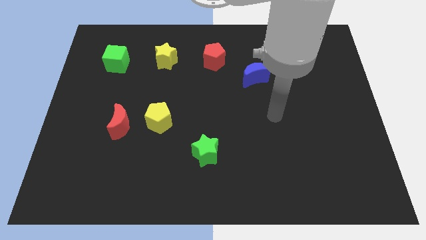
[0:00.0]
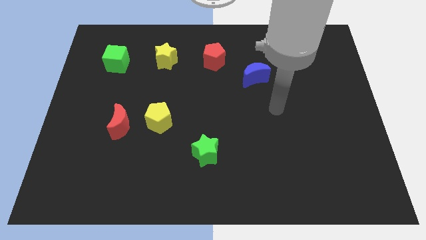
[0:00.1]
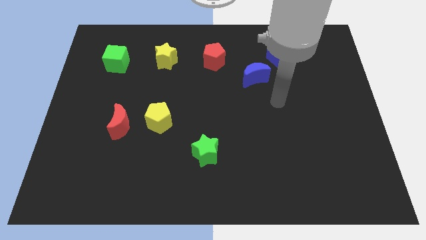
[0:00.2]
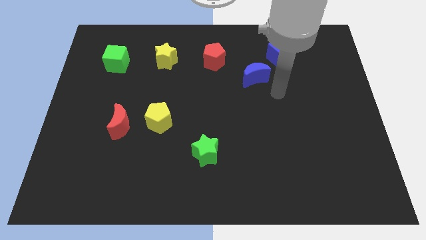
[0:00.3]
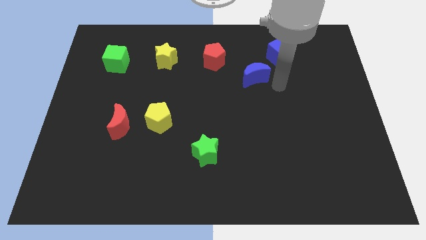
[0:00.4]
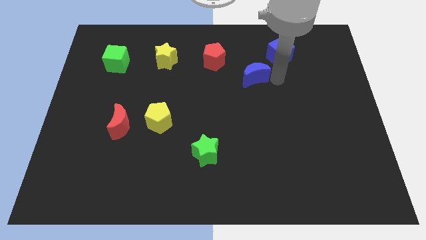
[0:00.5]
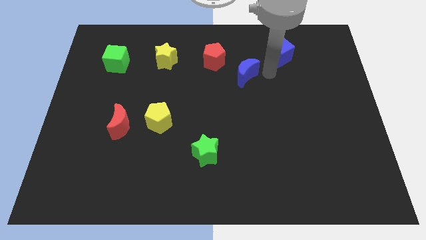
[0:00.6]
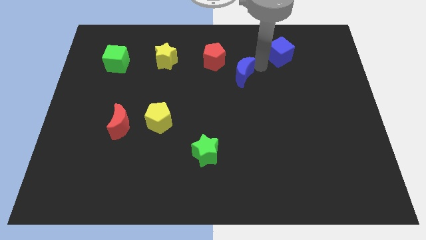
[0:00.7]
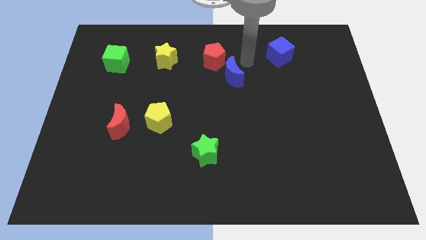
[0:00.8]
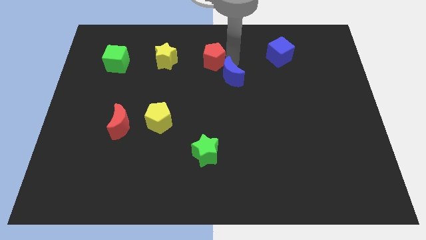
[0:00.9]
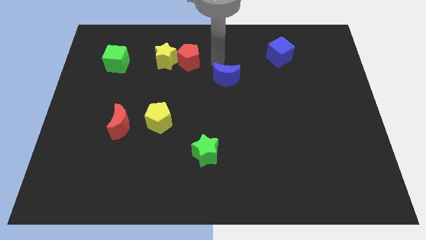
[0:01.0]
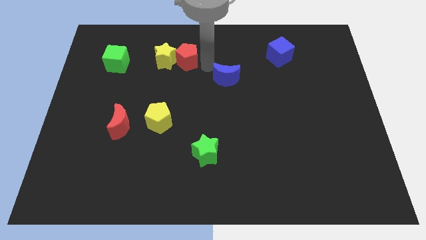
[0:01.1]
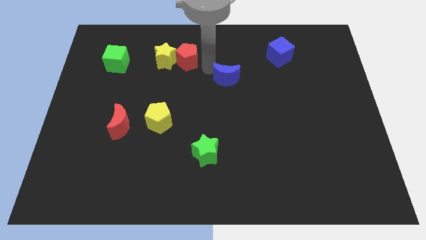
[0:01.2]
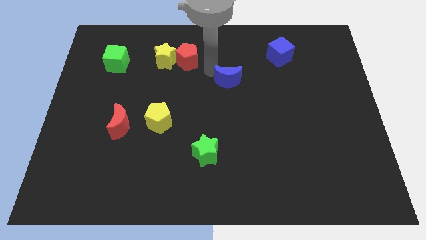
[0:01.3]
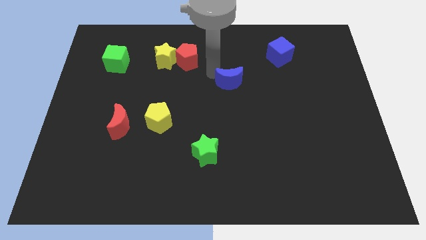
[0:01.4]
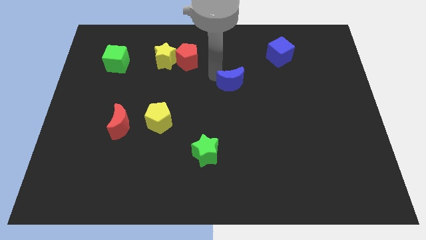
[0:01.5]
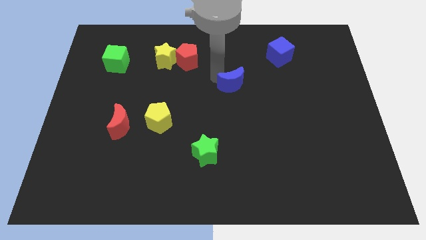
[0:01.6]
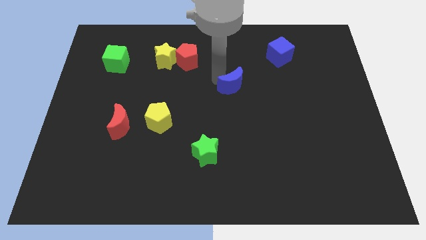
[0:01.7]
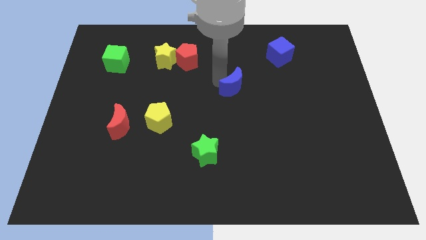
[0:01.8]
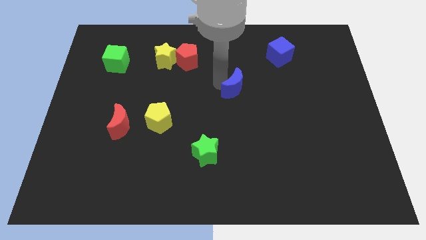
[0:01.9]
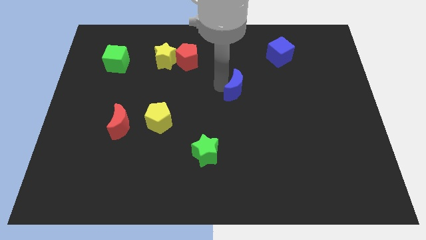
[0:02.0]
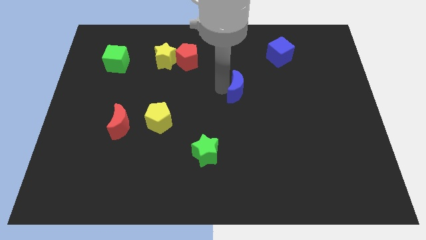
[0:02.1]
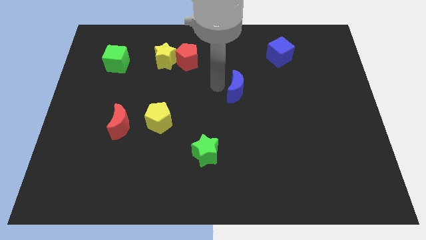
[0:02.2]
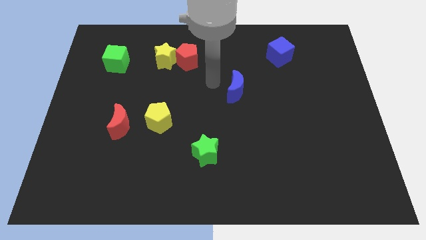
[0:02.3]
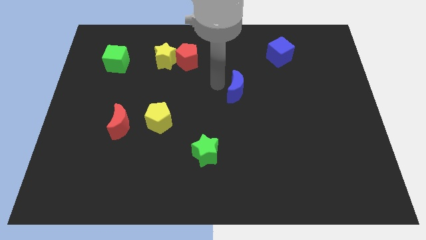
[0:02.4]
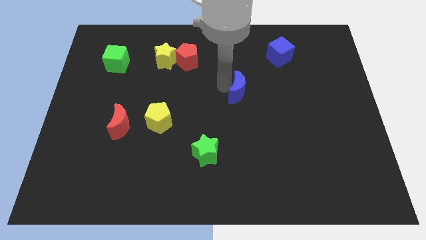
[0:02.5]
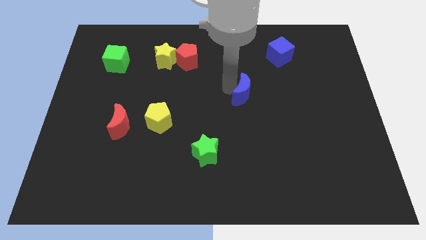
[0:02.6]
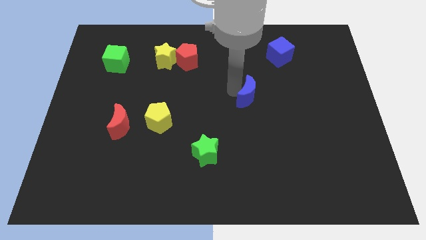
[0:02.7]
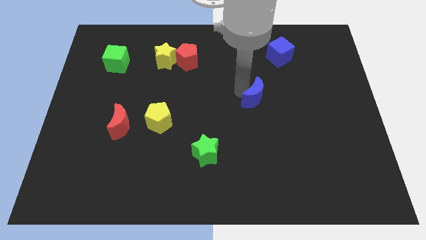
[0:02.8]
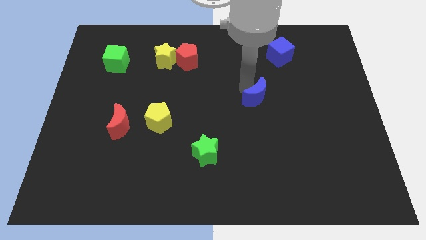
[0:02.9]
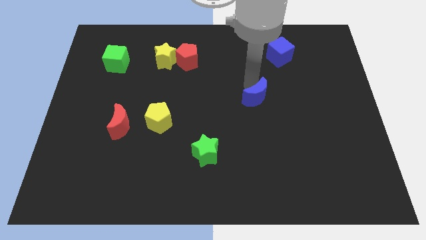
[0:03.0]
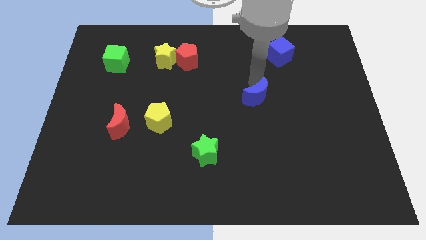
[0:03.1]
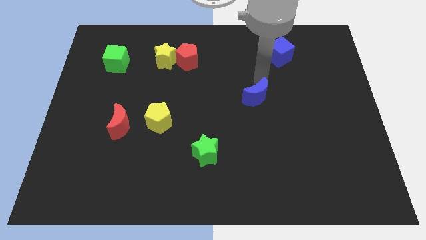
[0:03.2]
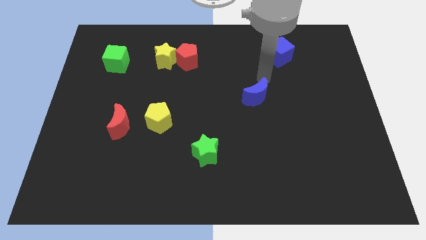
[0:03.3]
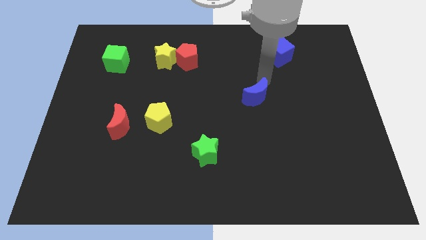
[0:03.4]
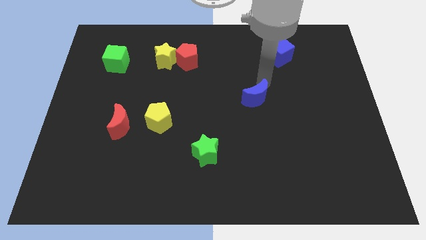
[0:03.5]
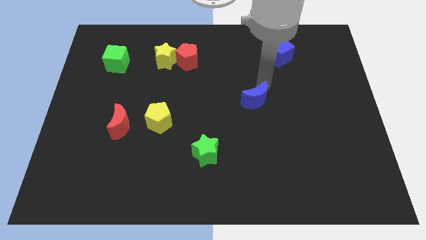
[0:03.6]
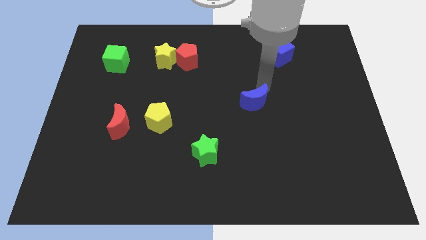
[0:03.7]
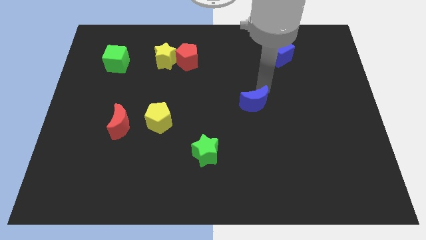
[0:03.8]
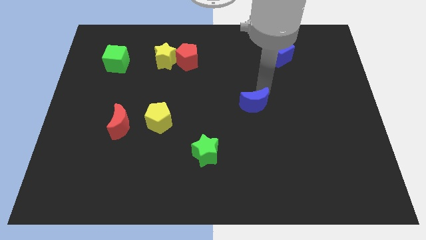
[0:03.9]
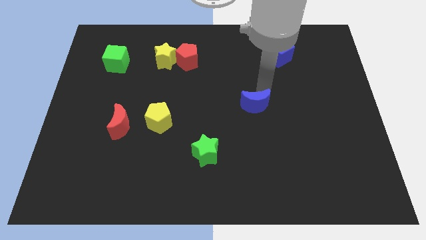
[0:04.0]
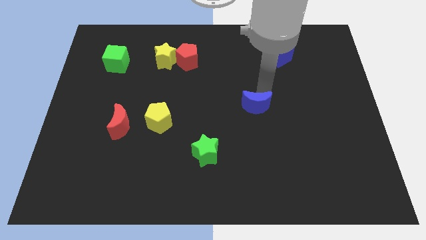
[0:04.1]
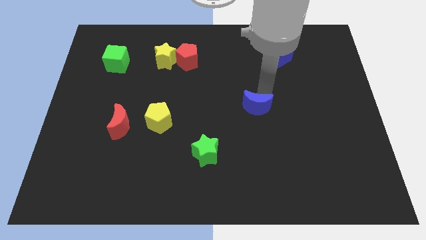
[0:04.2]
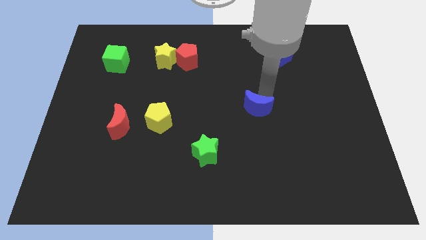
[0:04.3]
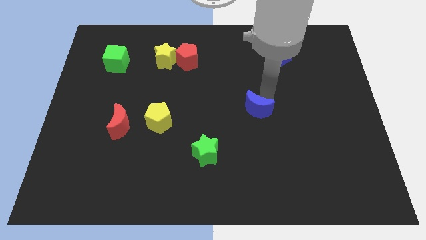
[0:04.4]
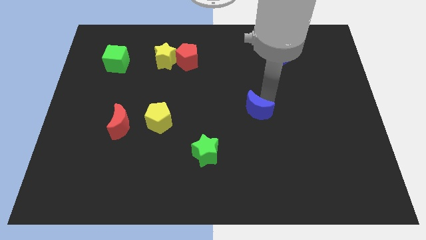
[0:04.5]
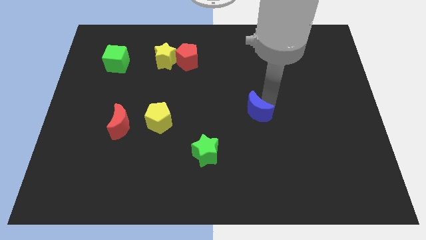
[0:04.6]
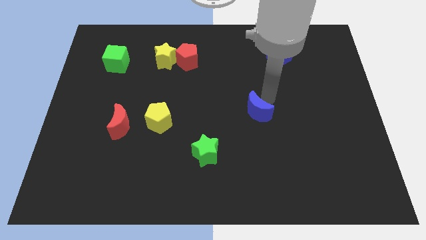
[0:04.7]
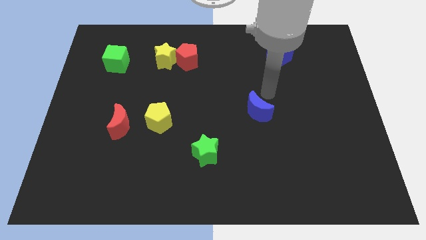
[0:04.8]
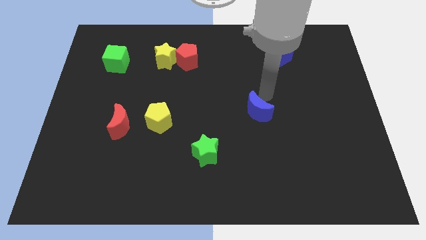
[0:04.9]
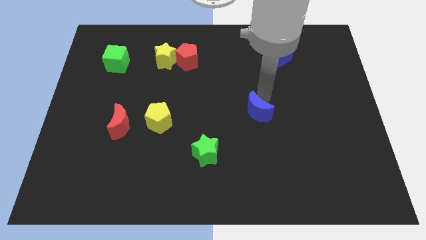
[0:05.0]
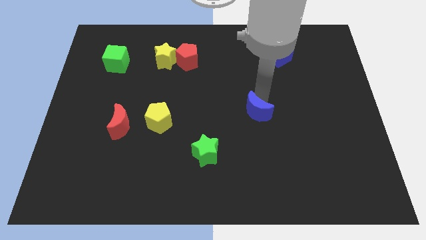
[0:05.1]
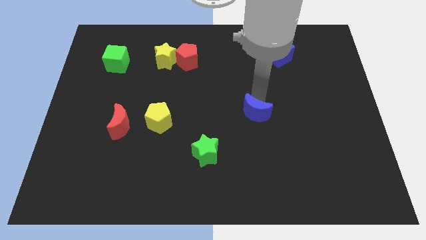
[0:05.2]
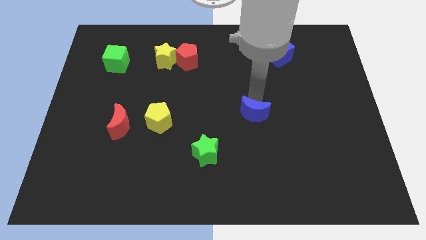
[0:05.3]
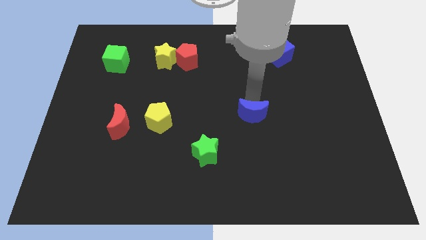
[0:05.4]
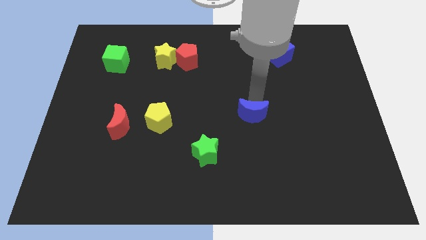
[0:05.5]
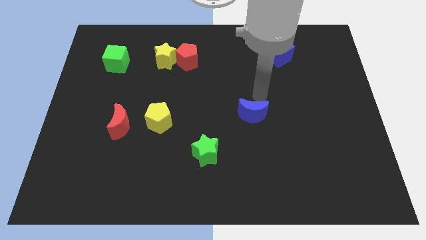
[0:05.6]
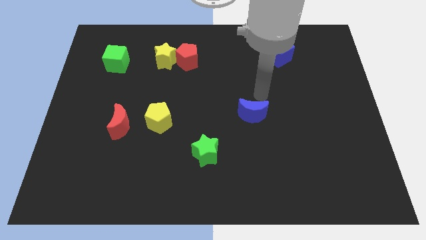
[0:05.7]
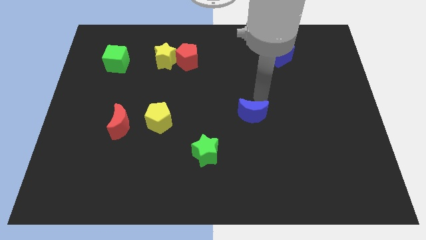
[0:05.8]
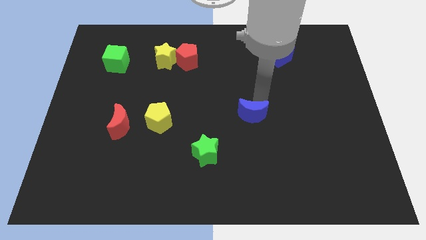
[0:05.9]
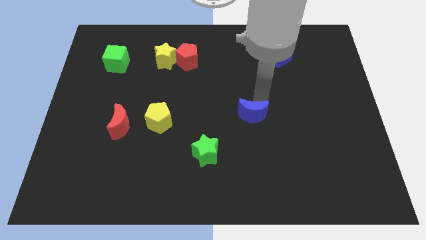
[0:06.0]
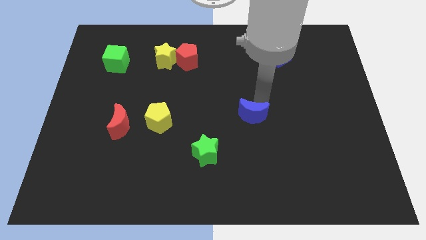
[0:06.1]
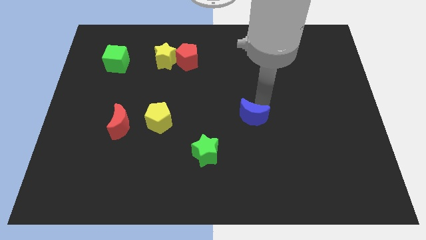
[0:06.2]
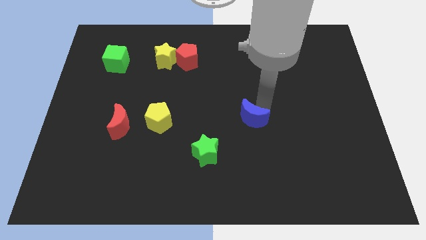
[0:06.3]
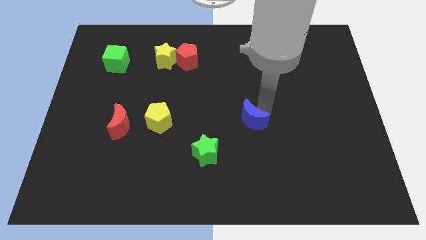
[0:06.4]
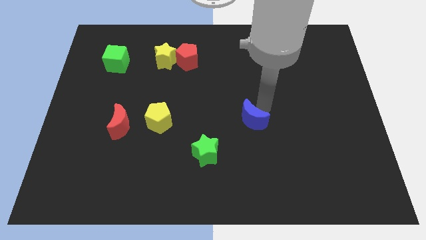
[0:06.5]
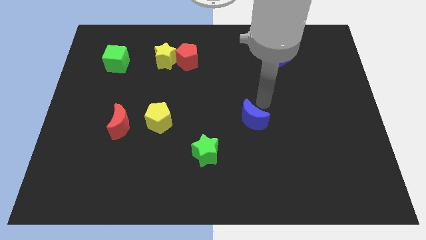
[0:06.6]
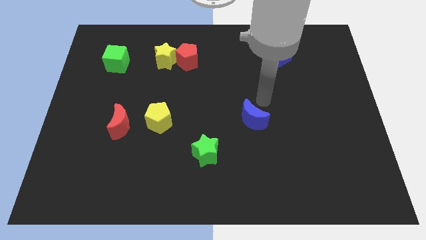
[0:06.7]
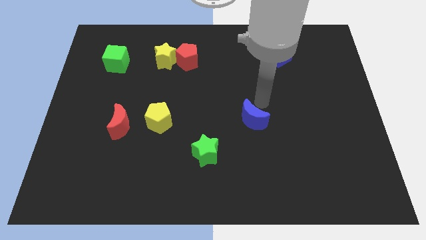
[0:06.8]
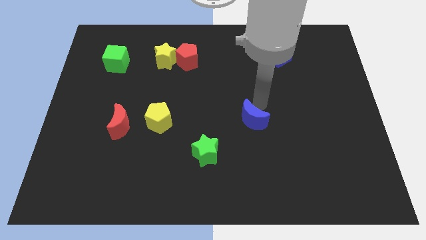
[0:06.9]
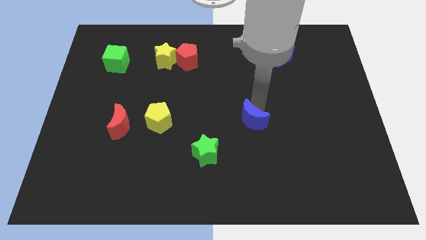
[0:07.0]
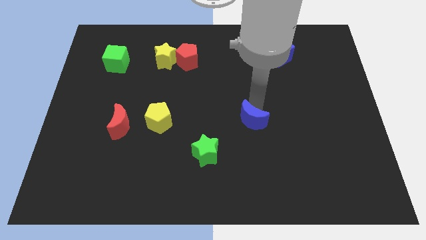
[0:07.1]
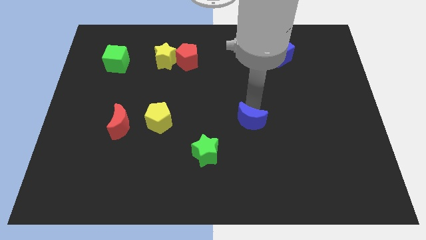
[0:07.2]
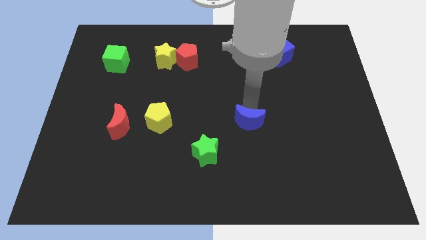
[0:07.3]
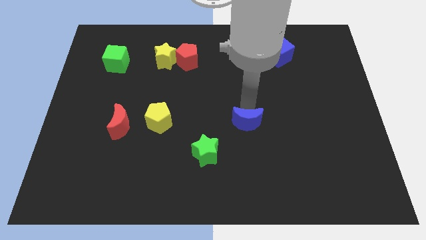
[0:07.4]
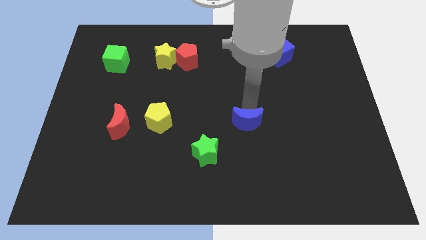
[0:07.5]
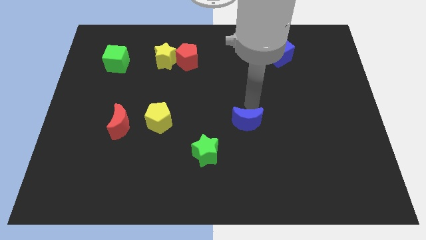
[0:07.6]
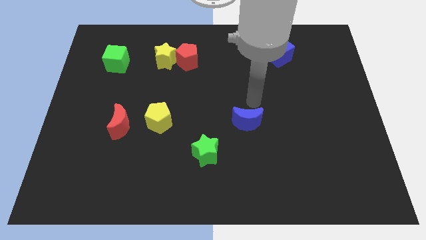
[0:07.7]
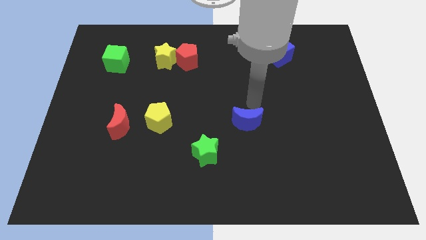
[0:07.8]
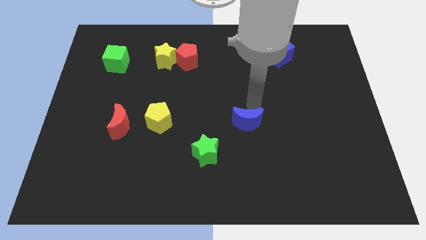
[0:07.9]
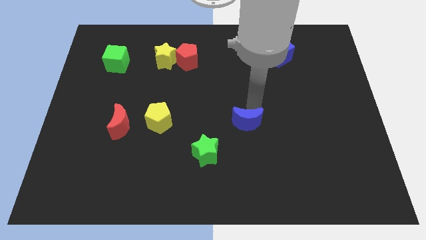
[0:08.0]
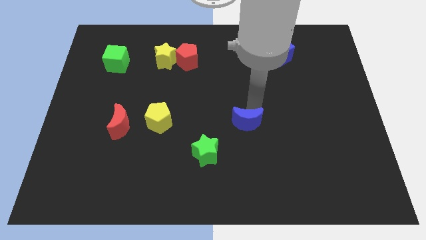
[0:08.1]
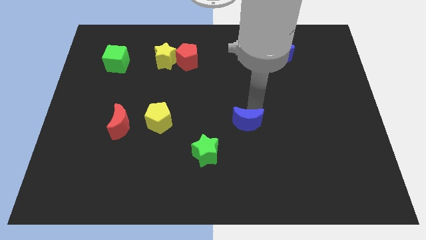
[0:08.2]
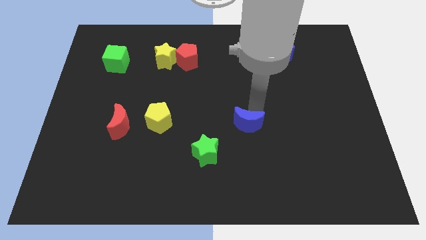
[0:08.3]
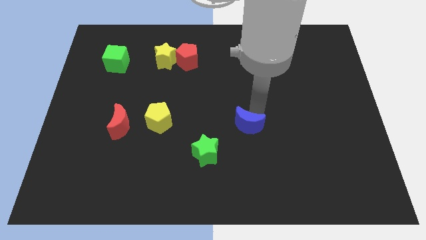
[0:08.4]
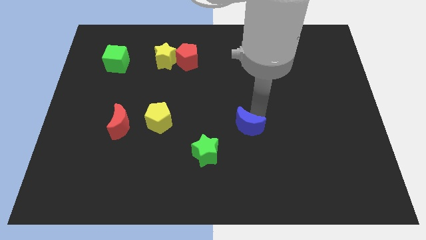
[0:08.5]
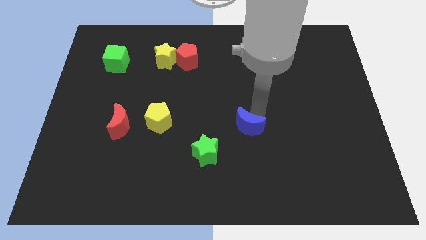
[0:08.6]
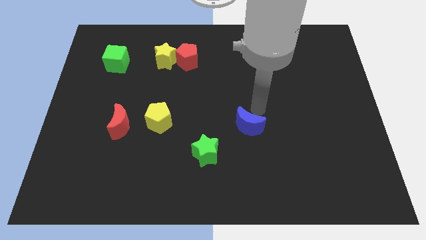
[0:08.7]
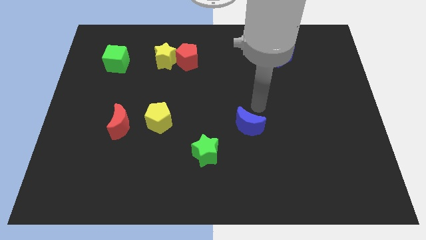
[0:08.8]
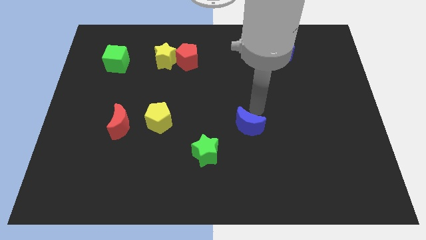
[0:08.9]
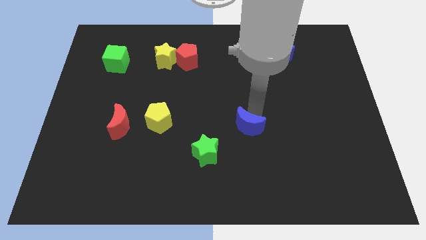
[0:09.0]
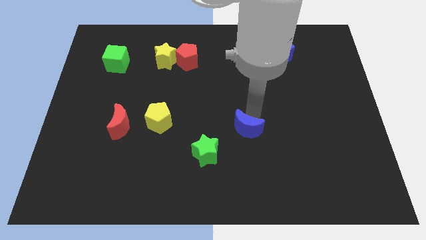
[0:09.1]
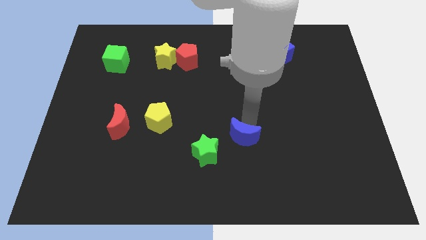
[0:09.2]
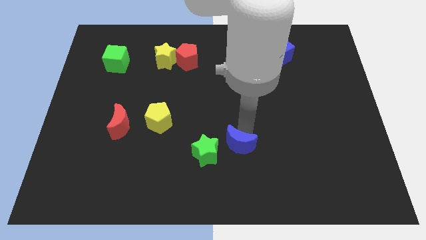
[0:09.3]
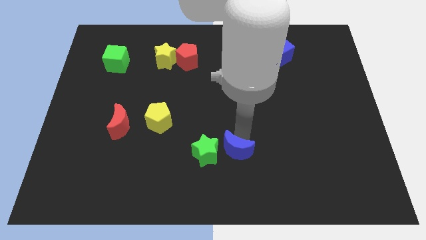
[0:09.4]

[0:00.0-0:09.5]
move the blue moon diagonally down and to the right of the green star
